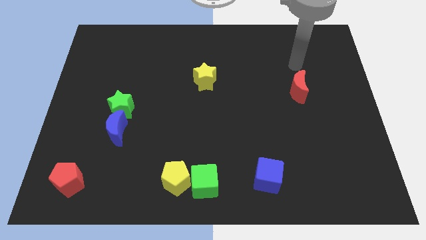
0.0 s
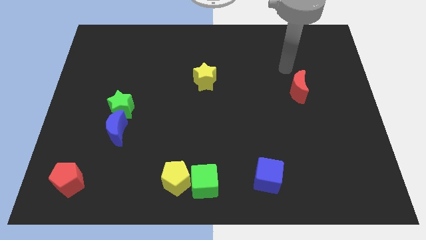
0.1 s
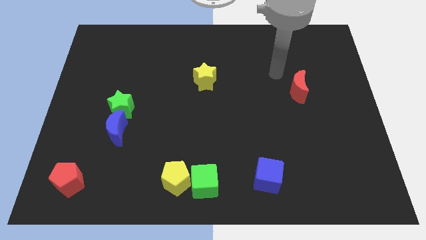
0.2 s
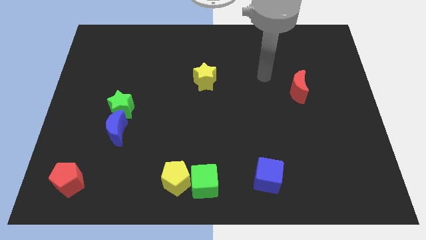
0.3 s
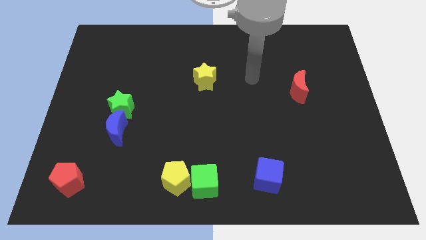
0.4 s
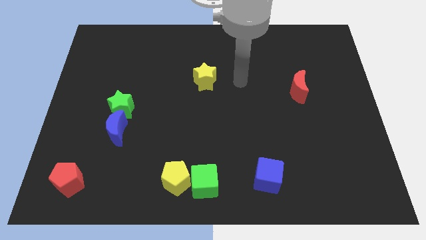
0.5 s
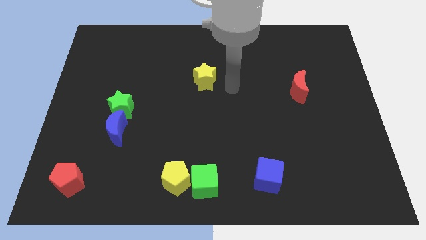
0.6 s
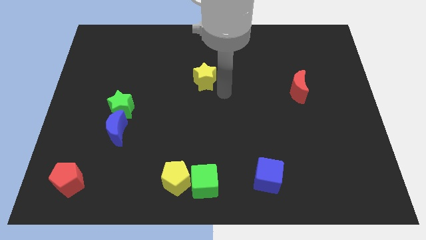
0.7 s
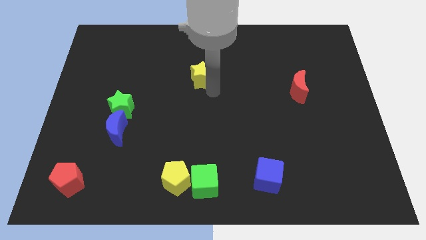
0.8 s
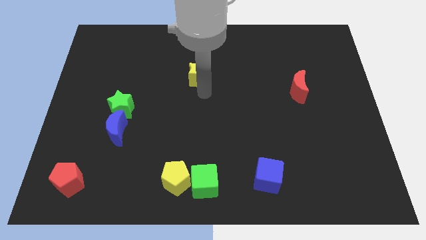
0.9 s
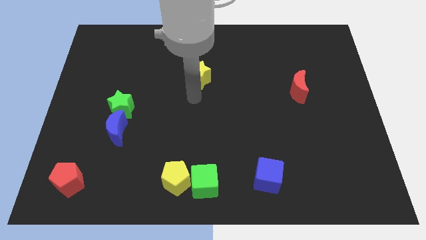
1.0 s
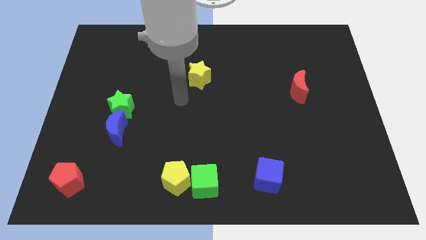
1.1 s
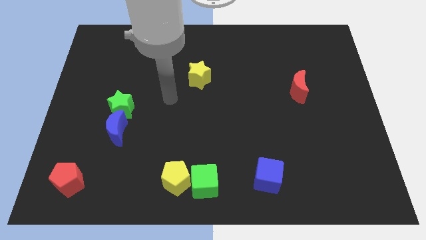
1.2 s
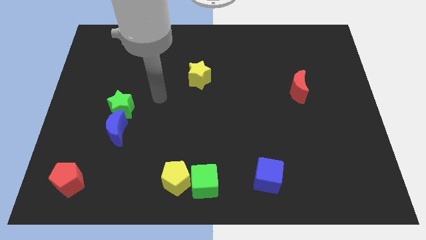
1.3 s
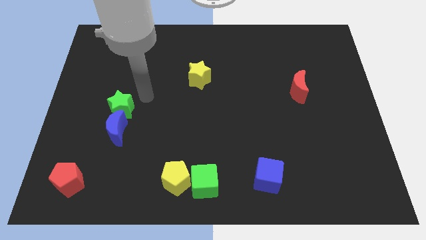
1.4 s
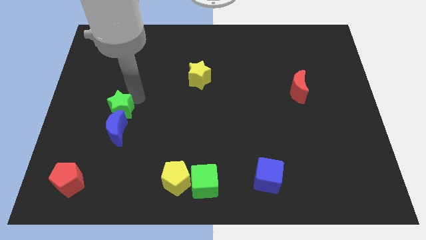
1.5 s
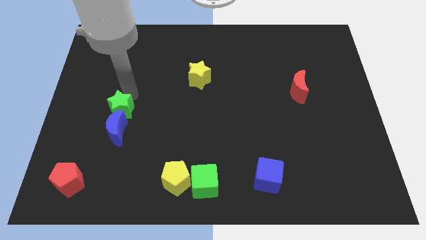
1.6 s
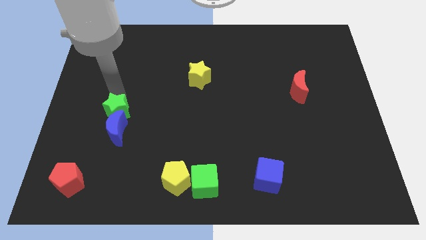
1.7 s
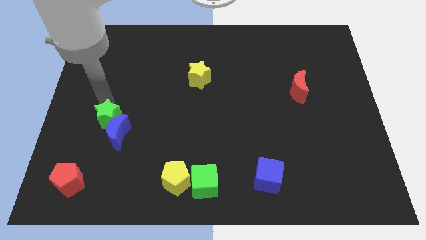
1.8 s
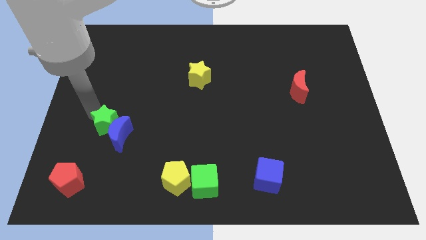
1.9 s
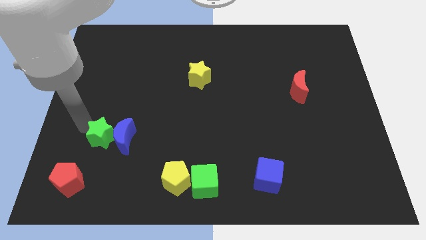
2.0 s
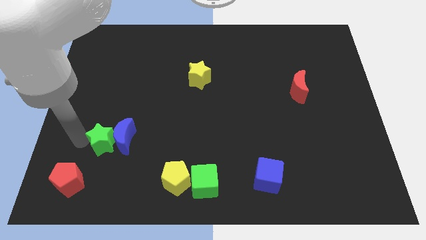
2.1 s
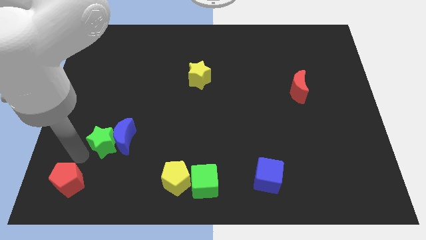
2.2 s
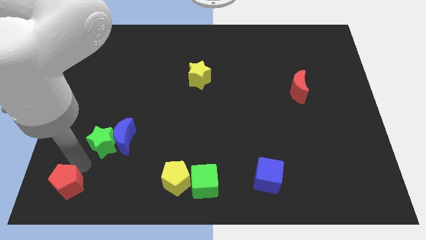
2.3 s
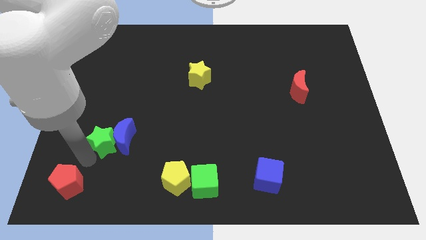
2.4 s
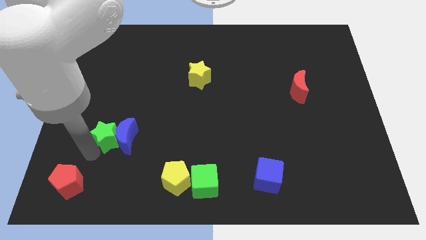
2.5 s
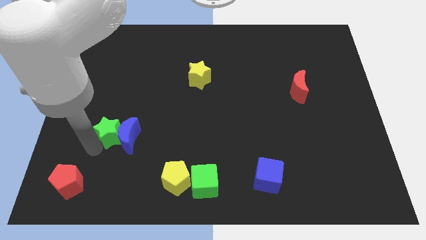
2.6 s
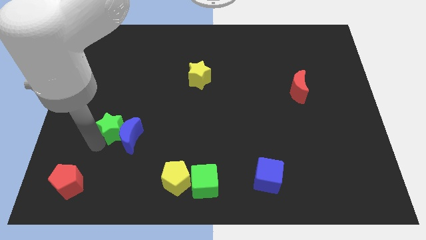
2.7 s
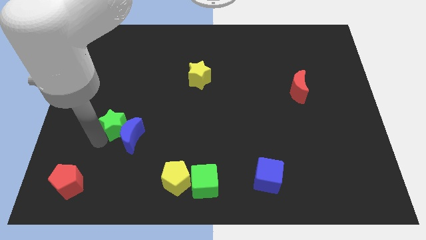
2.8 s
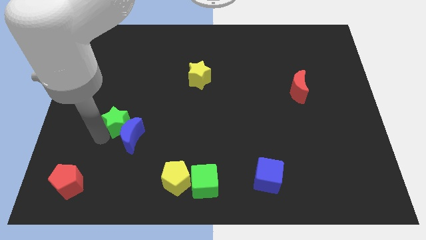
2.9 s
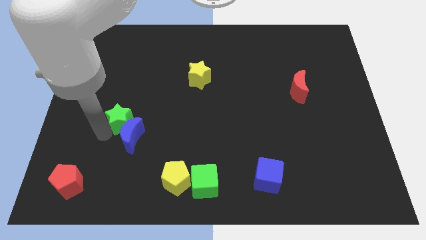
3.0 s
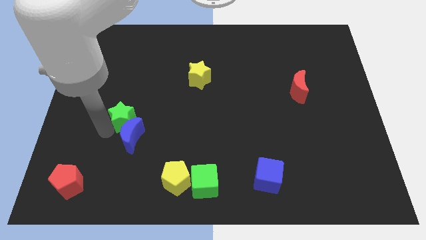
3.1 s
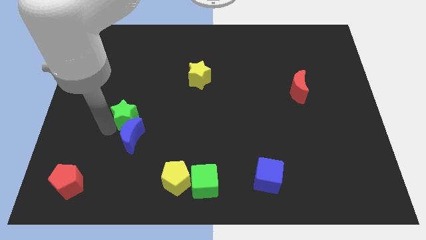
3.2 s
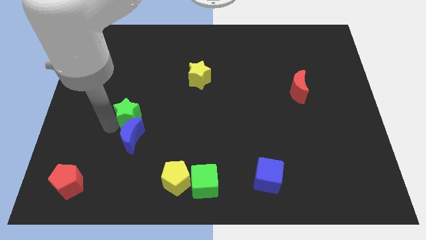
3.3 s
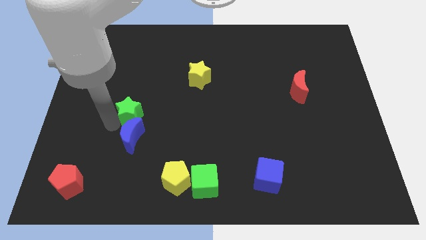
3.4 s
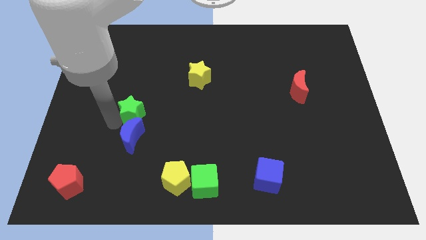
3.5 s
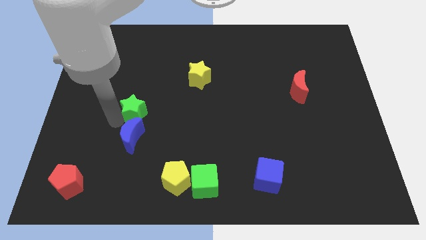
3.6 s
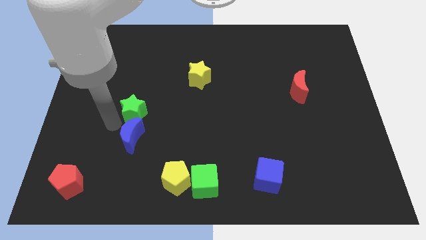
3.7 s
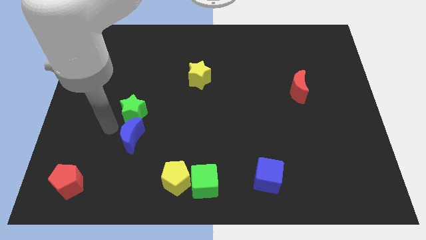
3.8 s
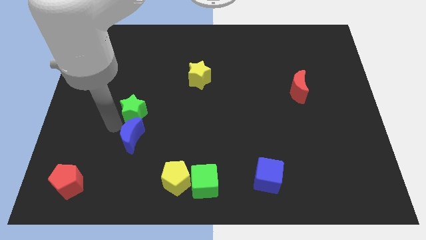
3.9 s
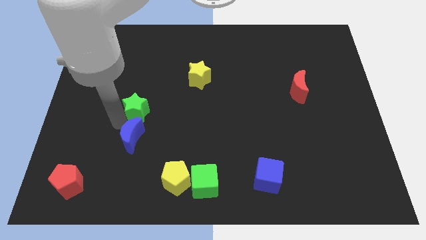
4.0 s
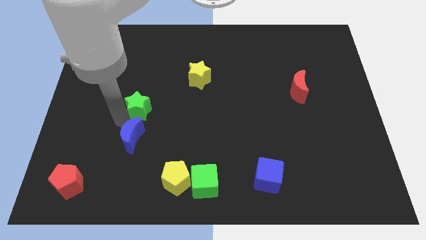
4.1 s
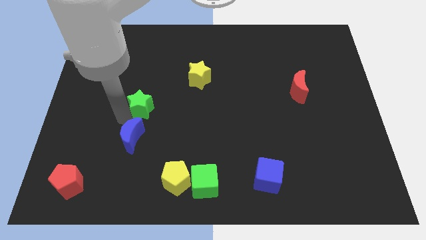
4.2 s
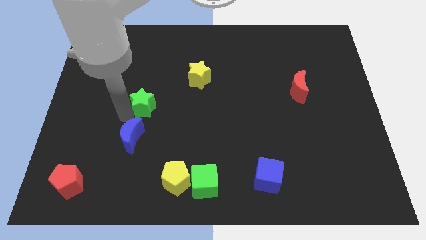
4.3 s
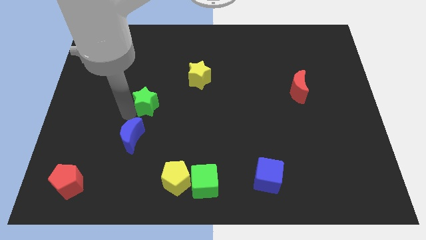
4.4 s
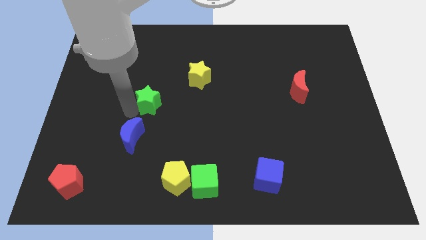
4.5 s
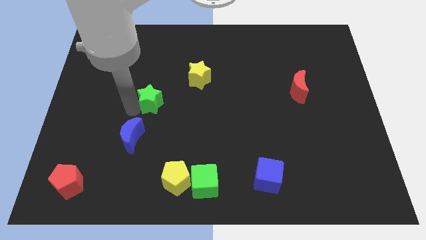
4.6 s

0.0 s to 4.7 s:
move the green star to the right a bit

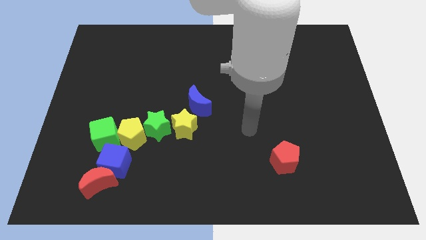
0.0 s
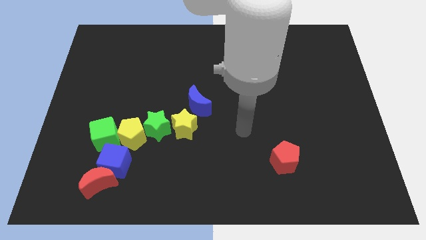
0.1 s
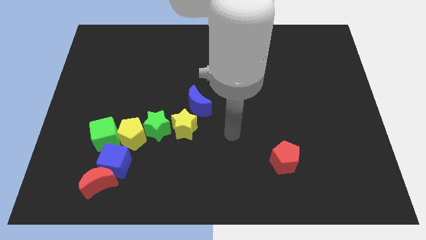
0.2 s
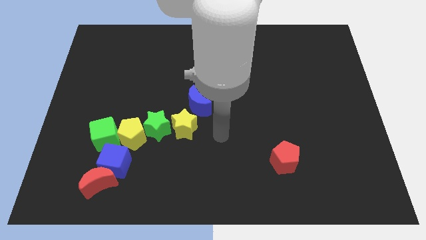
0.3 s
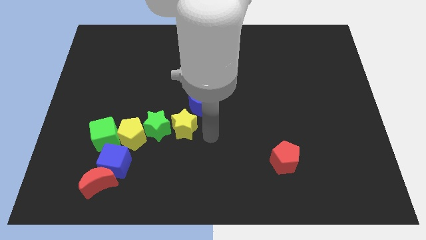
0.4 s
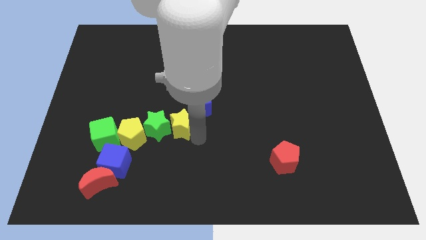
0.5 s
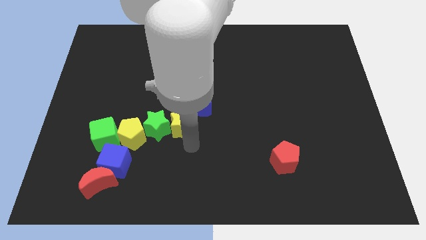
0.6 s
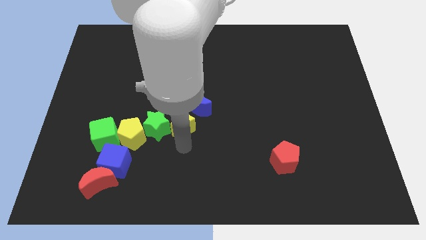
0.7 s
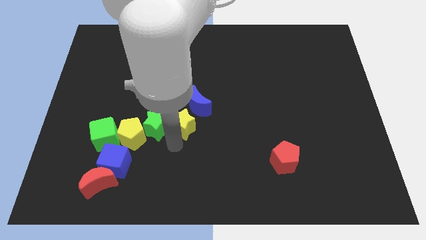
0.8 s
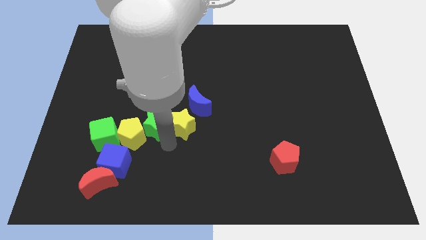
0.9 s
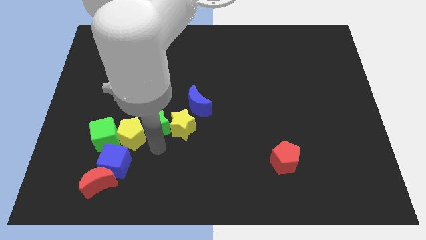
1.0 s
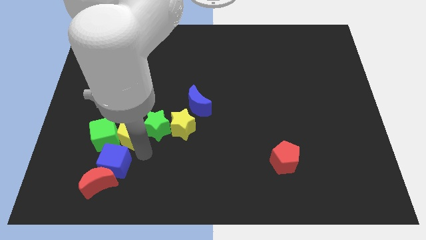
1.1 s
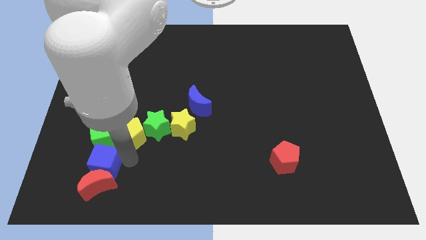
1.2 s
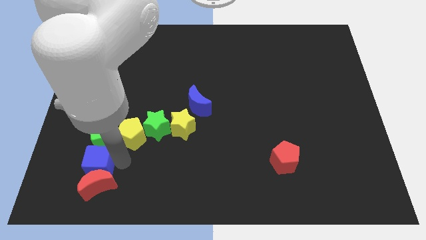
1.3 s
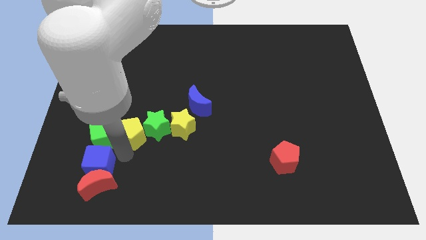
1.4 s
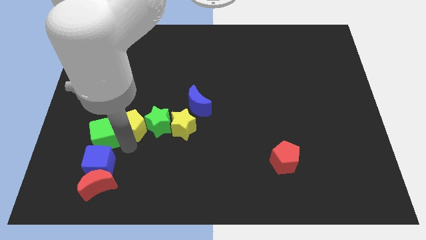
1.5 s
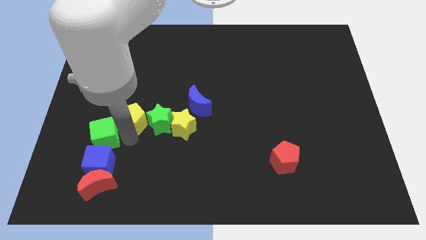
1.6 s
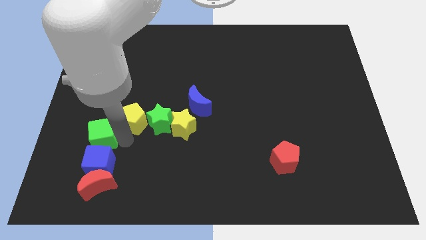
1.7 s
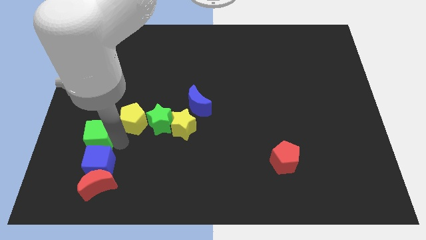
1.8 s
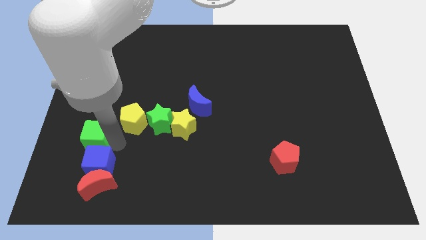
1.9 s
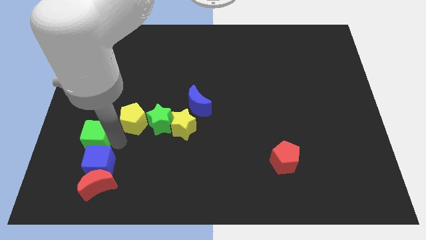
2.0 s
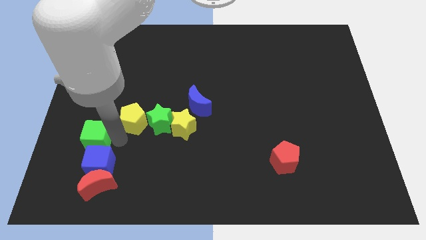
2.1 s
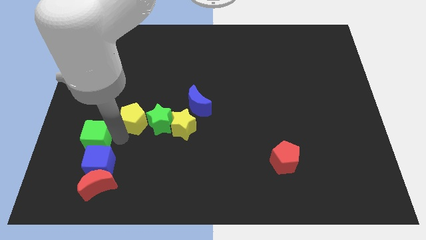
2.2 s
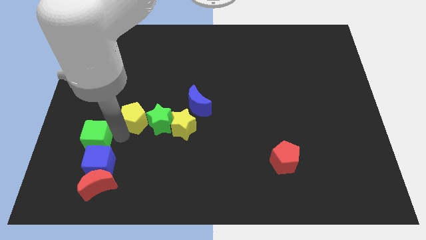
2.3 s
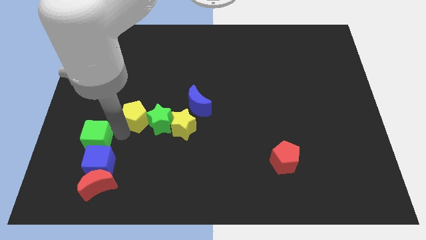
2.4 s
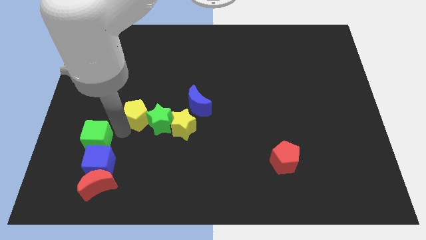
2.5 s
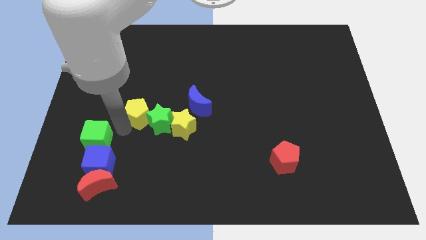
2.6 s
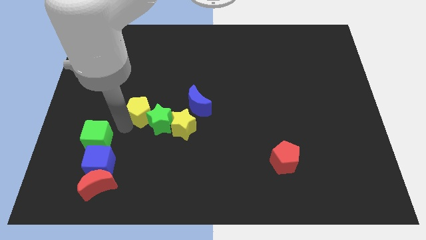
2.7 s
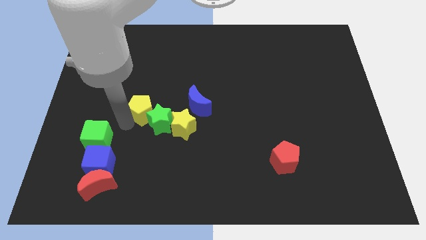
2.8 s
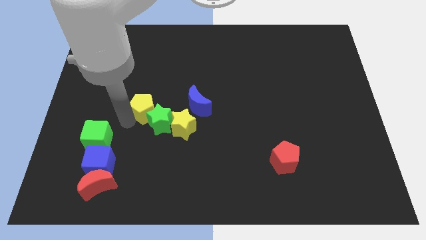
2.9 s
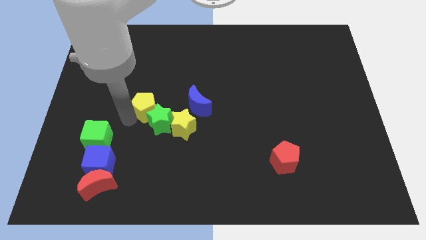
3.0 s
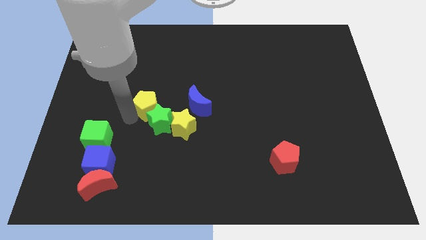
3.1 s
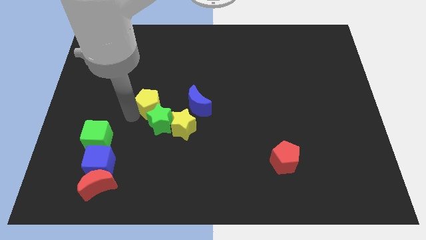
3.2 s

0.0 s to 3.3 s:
slightly push the yellow pentagon upwards and then to the right

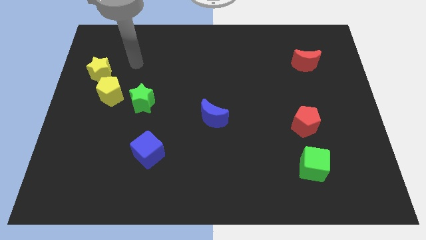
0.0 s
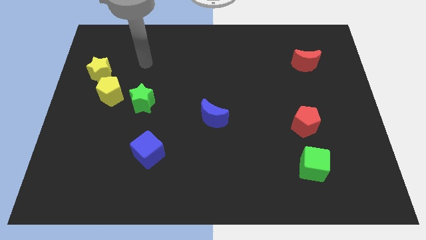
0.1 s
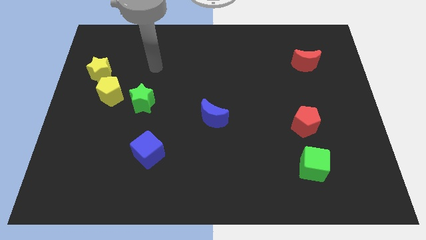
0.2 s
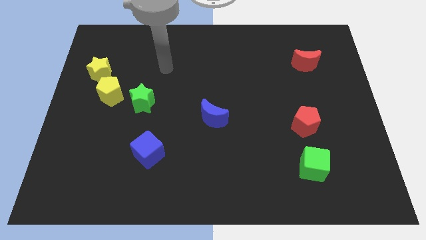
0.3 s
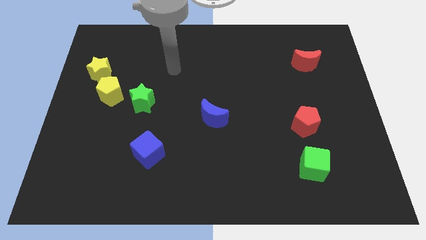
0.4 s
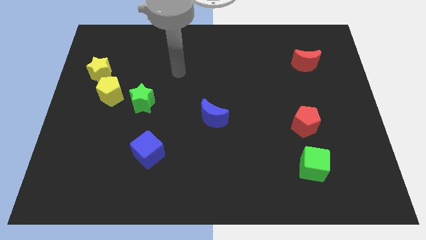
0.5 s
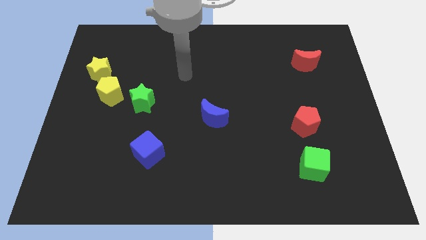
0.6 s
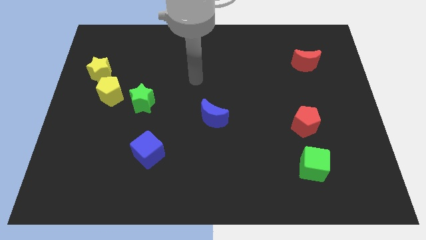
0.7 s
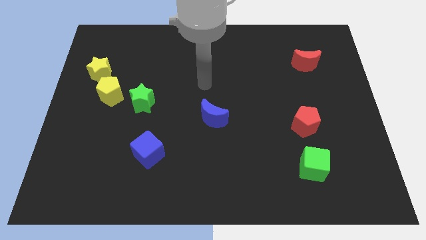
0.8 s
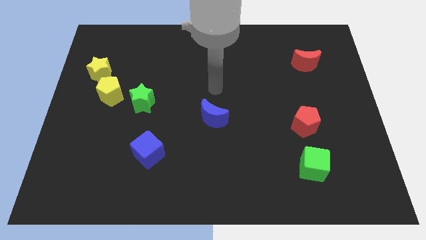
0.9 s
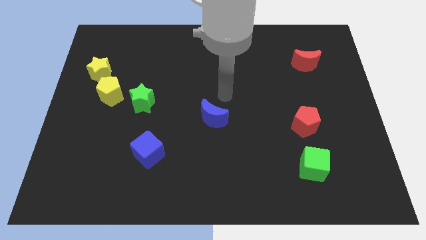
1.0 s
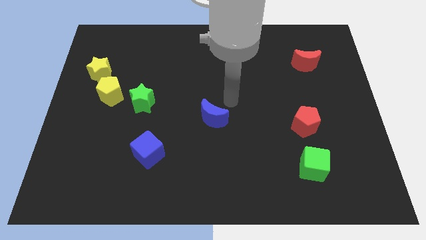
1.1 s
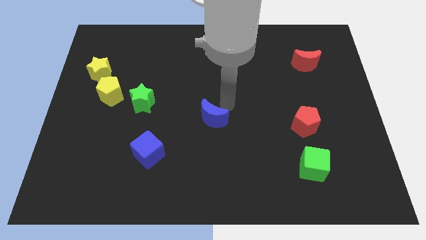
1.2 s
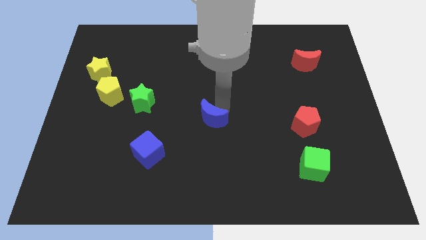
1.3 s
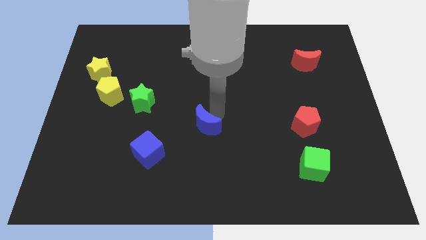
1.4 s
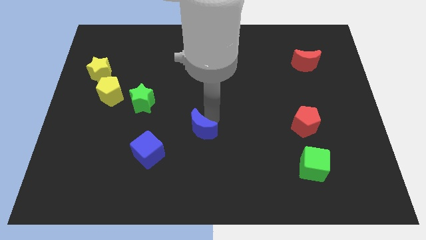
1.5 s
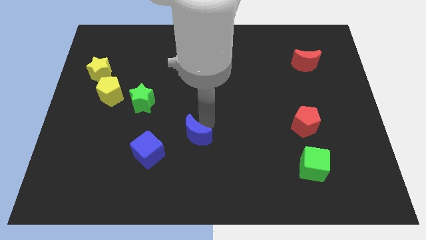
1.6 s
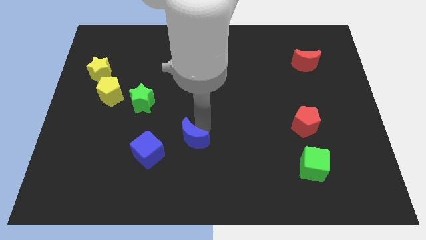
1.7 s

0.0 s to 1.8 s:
push the blue moon diagonally down and left a bit
